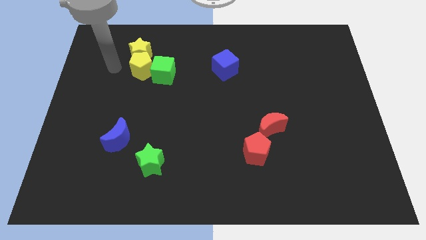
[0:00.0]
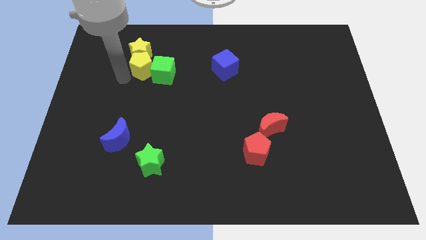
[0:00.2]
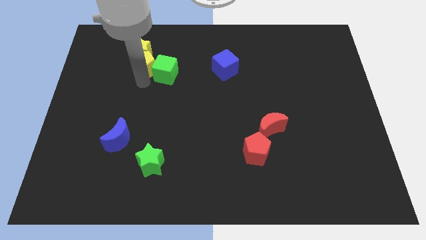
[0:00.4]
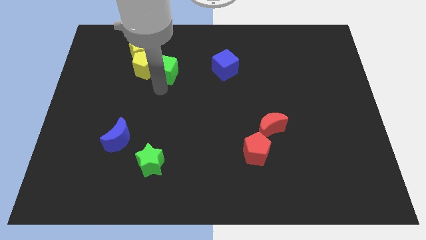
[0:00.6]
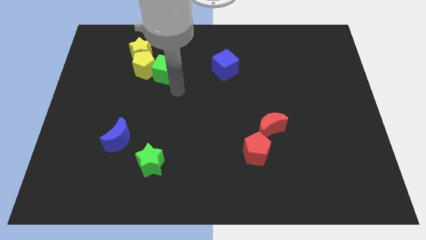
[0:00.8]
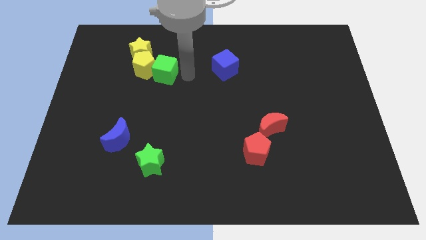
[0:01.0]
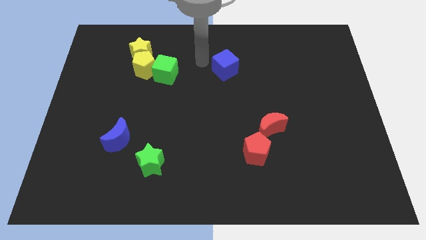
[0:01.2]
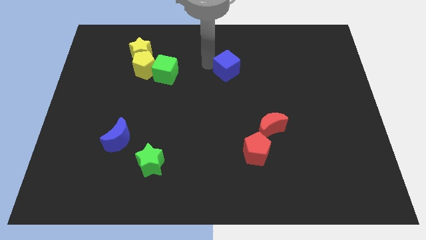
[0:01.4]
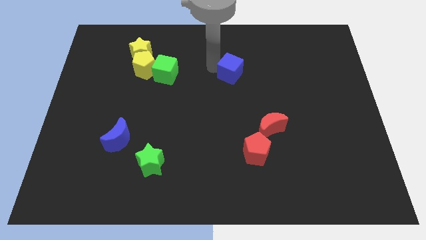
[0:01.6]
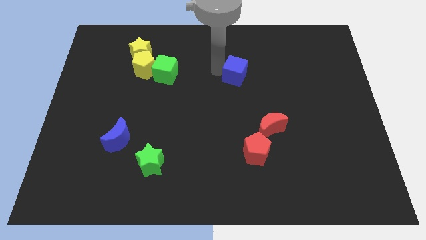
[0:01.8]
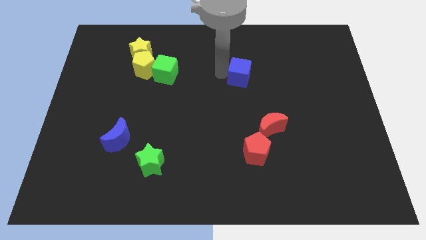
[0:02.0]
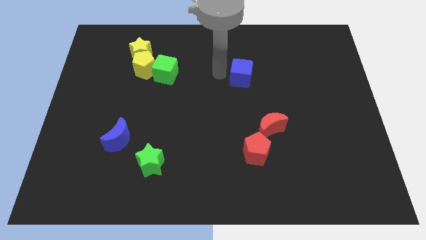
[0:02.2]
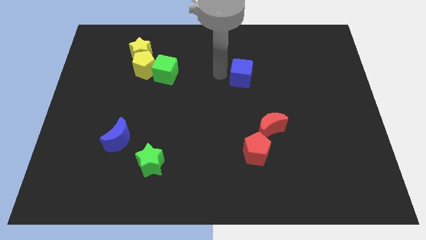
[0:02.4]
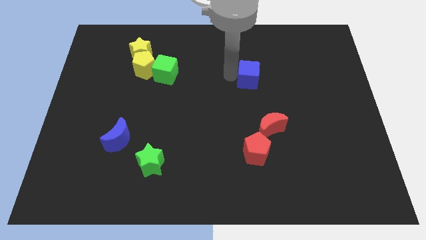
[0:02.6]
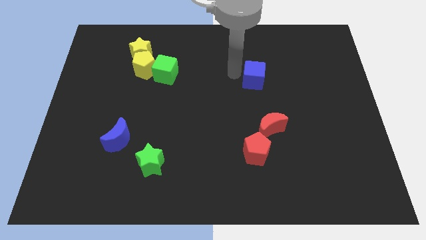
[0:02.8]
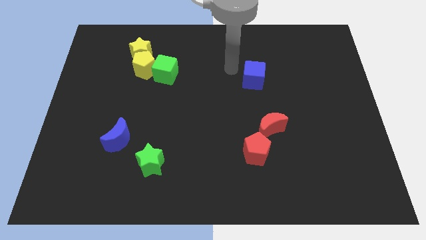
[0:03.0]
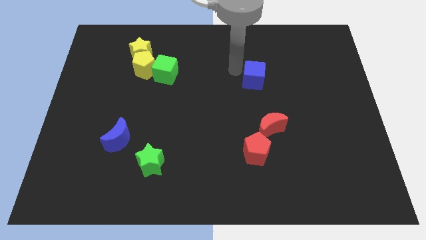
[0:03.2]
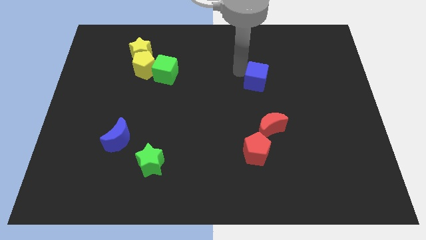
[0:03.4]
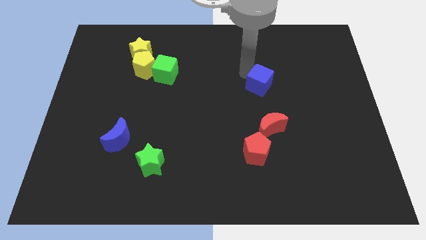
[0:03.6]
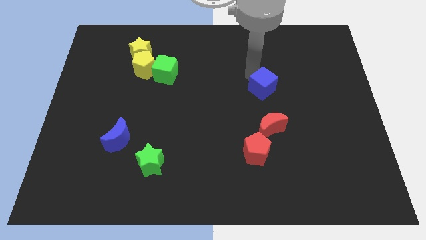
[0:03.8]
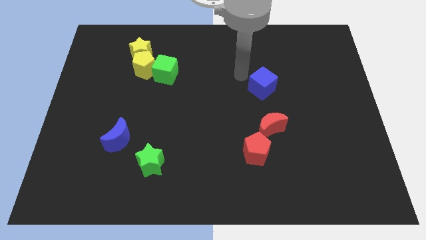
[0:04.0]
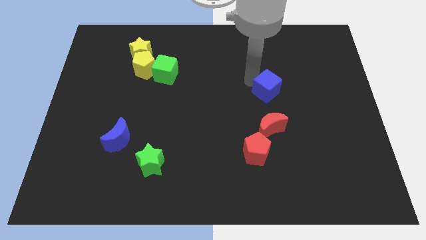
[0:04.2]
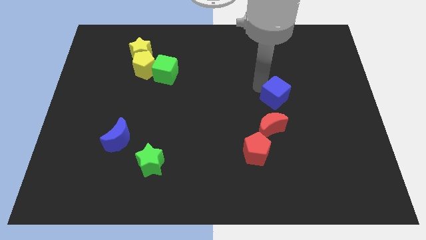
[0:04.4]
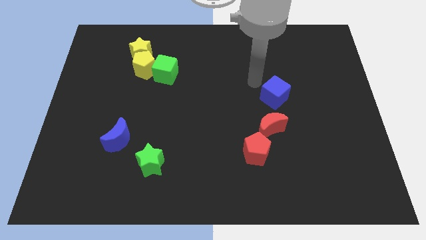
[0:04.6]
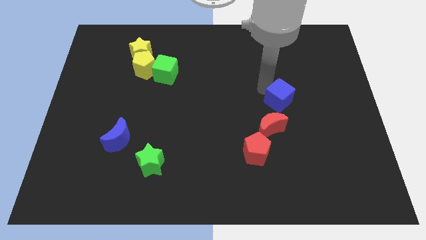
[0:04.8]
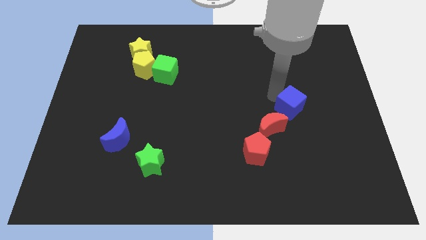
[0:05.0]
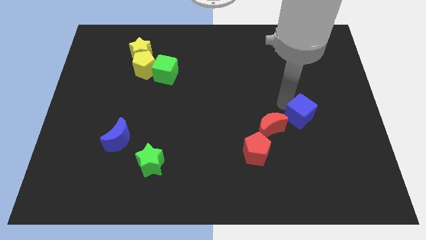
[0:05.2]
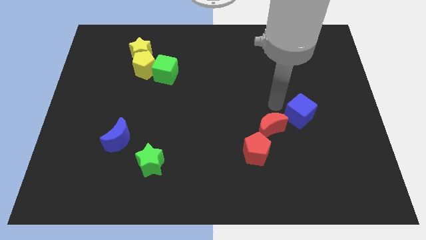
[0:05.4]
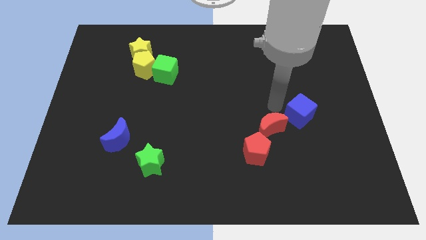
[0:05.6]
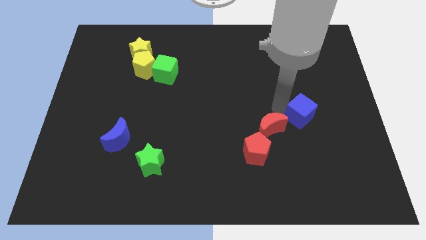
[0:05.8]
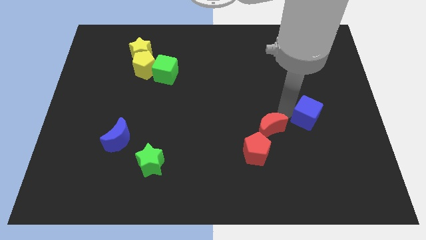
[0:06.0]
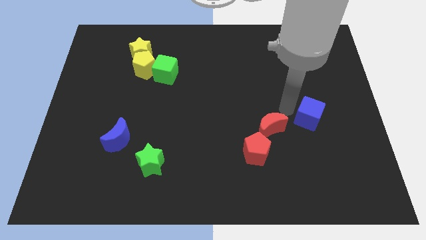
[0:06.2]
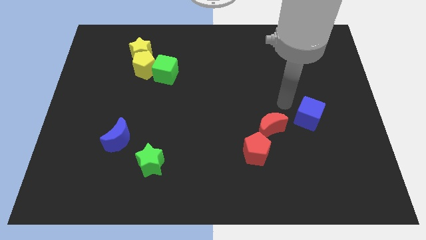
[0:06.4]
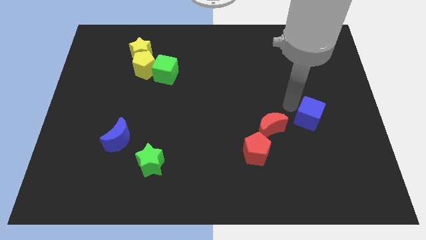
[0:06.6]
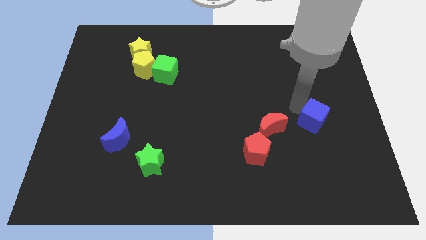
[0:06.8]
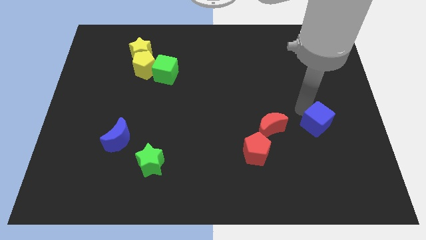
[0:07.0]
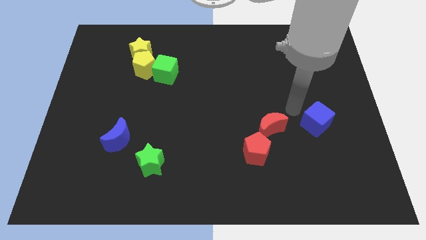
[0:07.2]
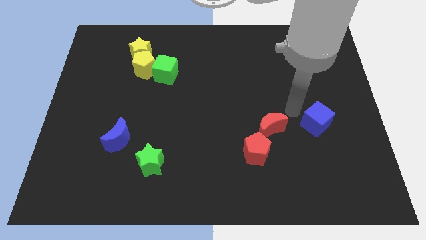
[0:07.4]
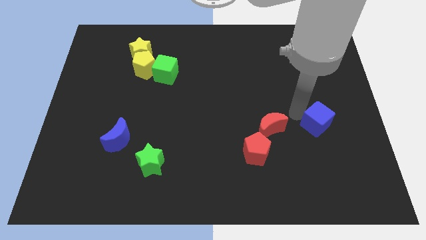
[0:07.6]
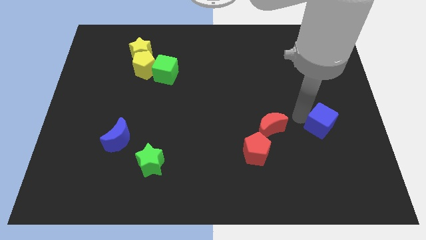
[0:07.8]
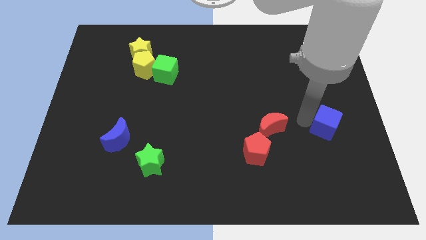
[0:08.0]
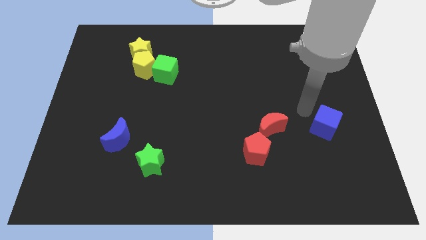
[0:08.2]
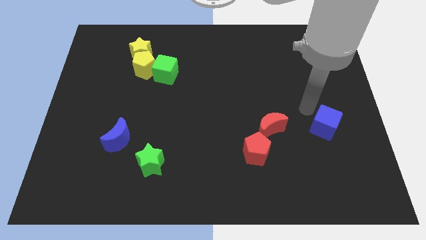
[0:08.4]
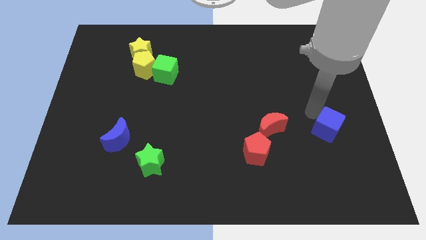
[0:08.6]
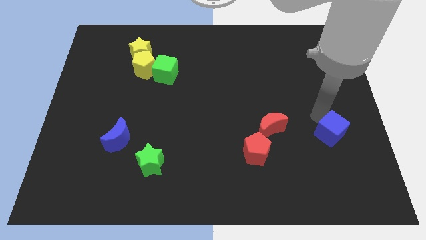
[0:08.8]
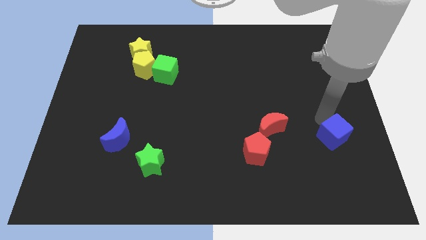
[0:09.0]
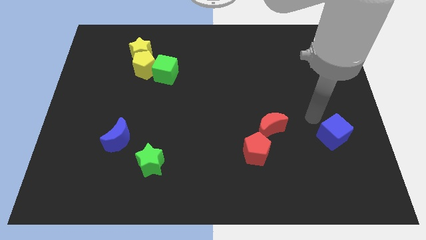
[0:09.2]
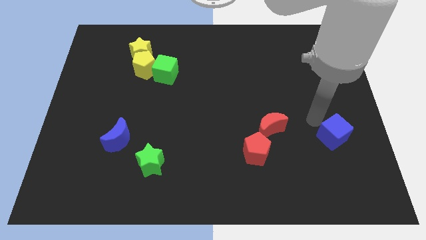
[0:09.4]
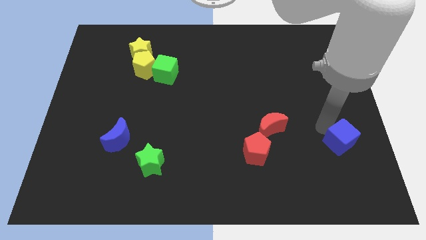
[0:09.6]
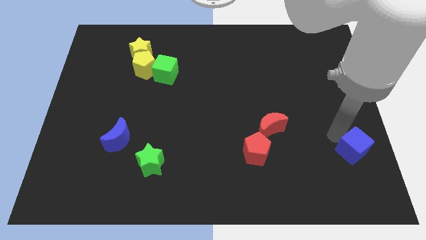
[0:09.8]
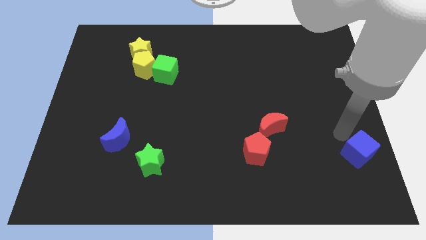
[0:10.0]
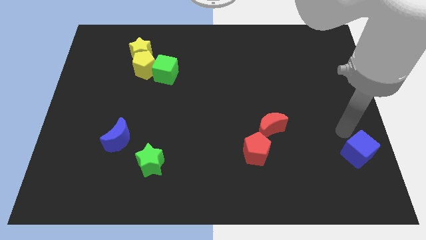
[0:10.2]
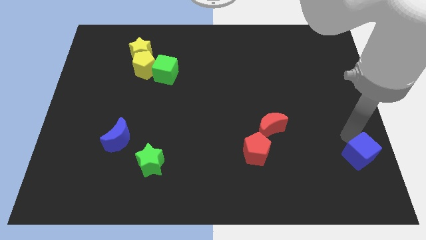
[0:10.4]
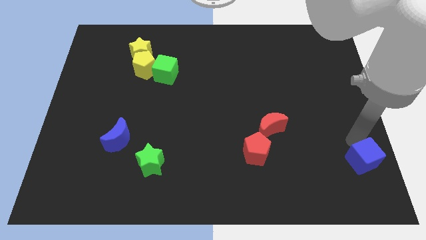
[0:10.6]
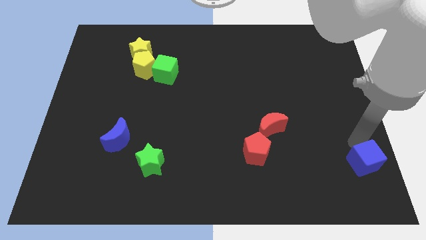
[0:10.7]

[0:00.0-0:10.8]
move the blue cube to the bottom right

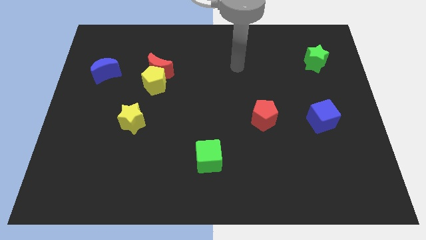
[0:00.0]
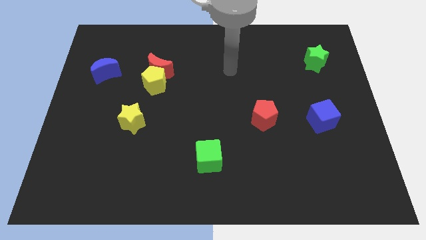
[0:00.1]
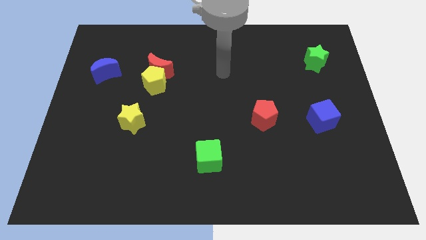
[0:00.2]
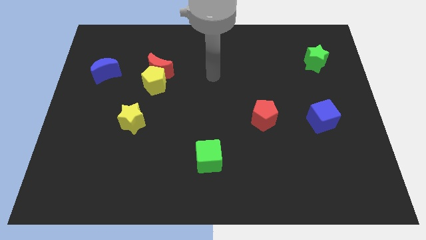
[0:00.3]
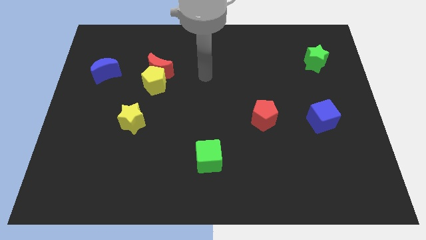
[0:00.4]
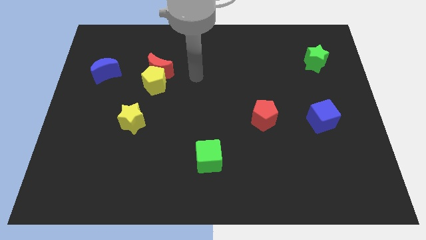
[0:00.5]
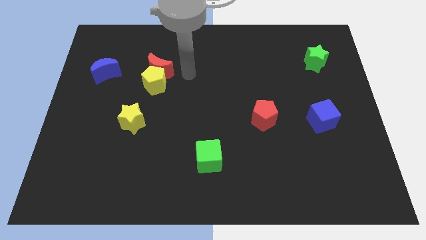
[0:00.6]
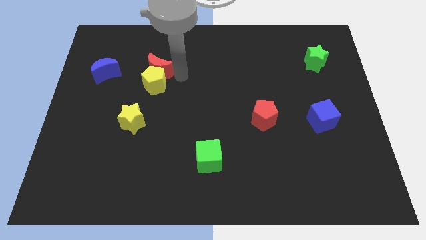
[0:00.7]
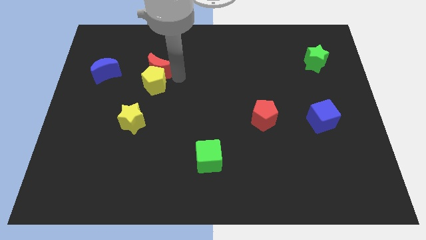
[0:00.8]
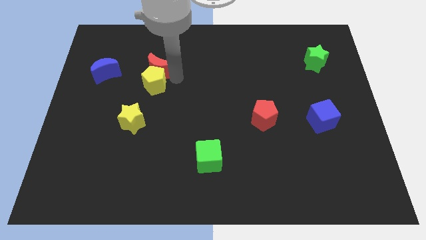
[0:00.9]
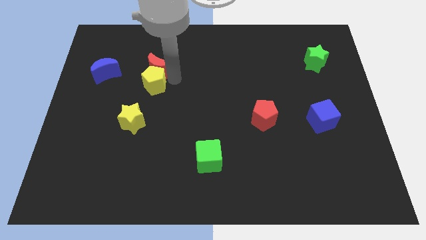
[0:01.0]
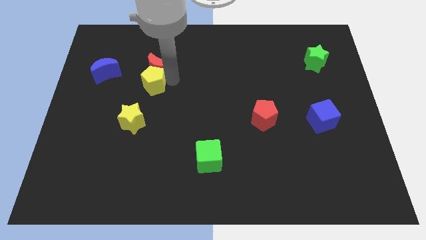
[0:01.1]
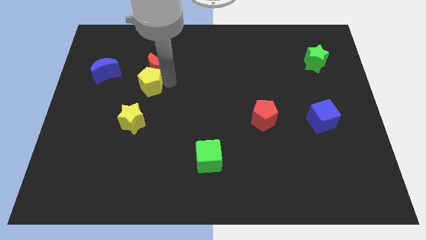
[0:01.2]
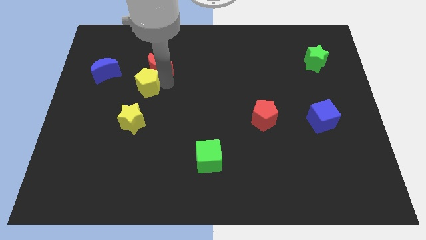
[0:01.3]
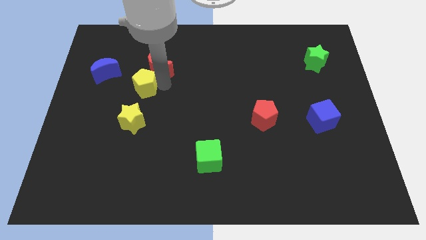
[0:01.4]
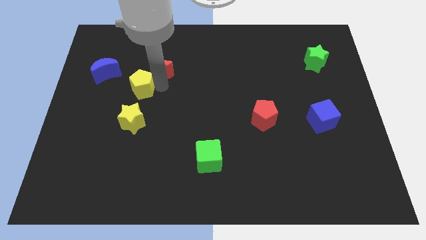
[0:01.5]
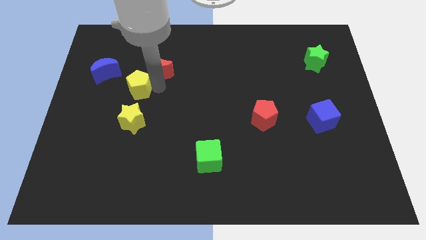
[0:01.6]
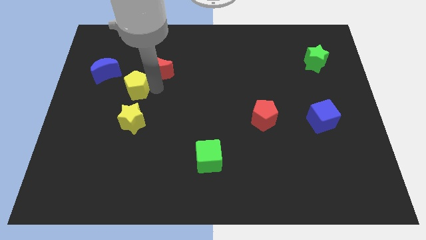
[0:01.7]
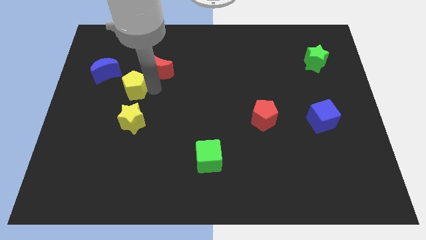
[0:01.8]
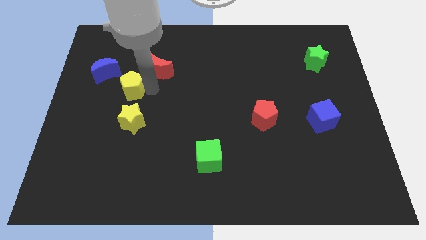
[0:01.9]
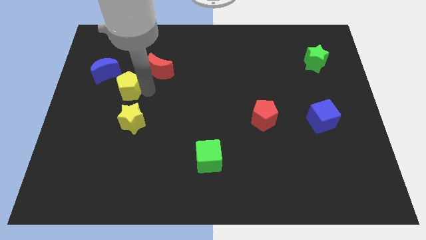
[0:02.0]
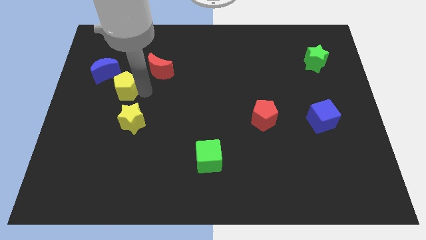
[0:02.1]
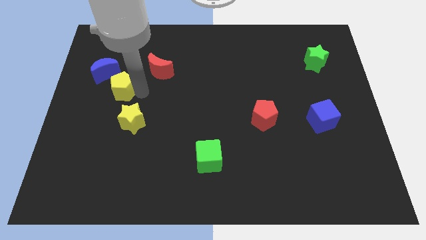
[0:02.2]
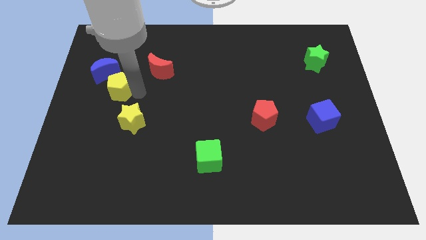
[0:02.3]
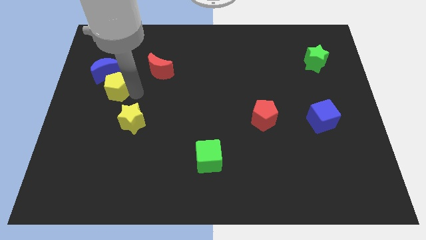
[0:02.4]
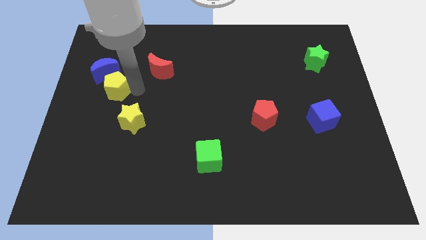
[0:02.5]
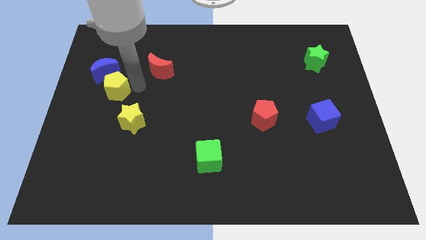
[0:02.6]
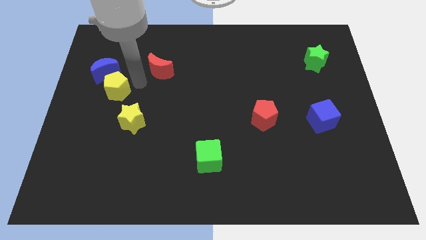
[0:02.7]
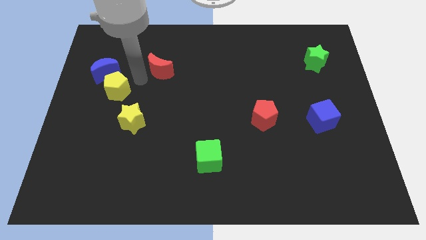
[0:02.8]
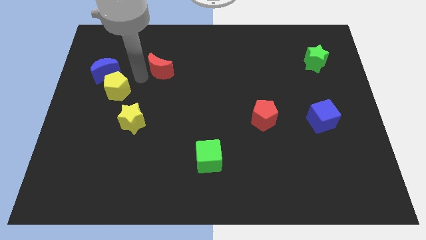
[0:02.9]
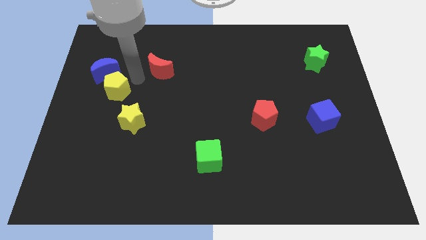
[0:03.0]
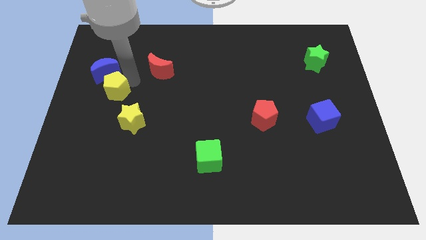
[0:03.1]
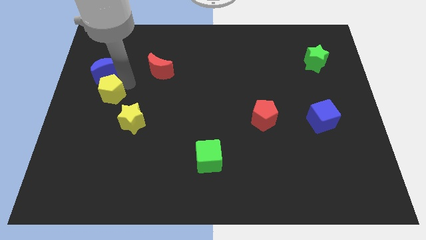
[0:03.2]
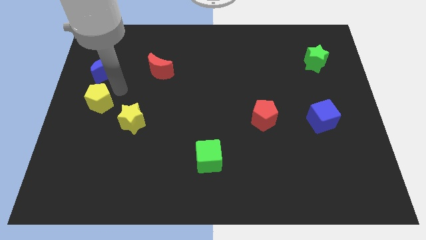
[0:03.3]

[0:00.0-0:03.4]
move the yellow pentagon to the left side of the board
